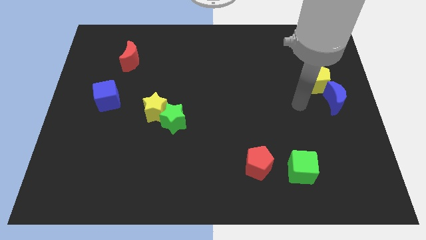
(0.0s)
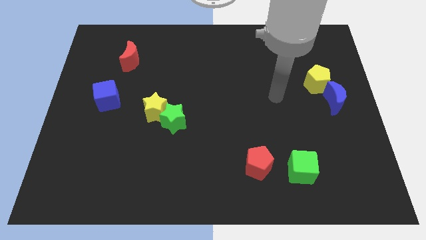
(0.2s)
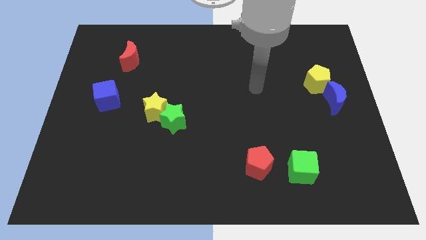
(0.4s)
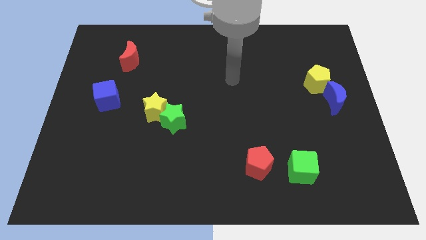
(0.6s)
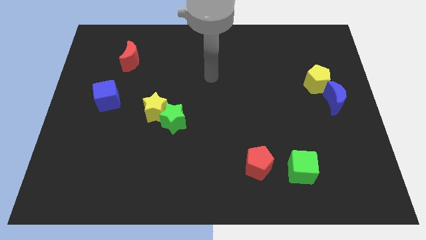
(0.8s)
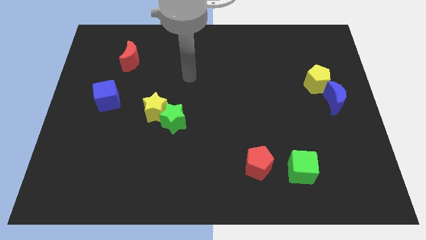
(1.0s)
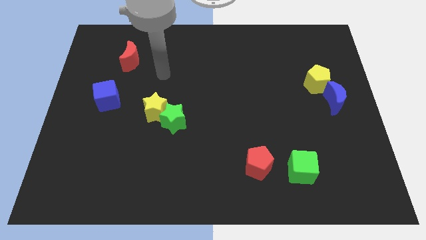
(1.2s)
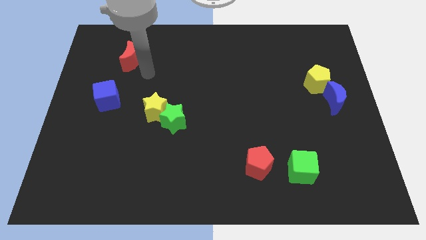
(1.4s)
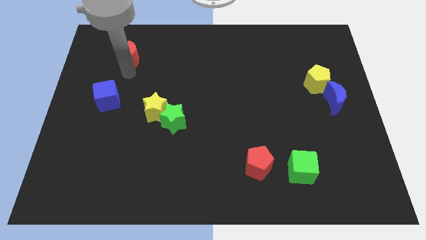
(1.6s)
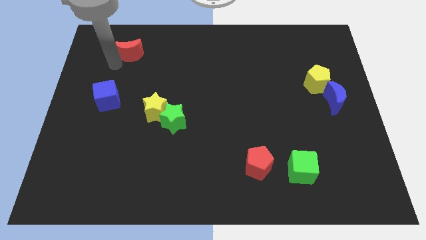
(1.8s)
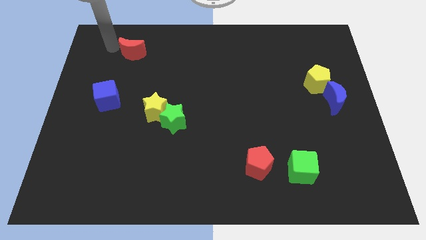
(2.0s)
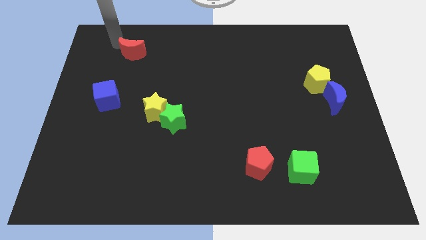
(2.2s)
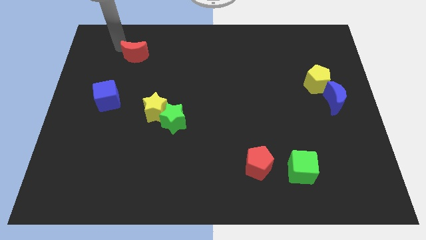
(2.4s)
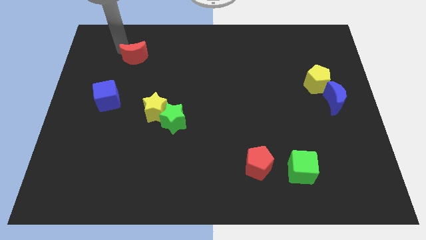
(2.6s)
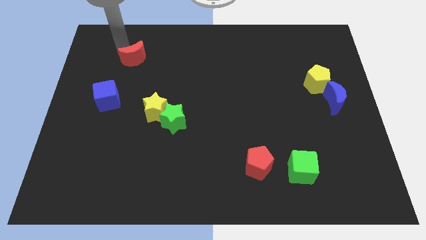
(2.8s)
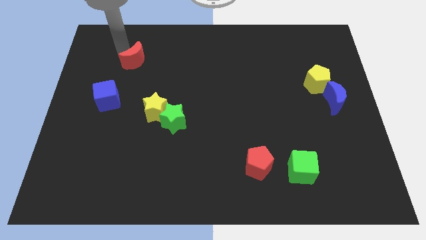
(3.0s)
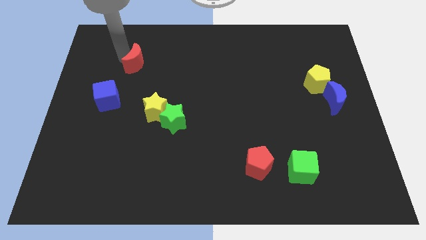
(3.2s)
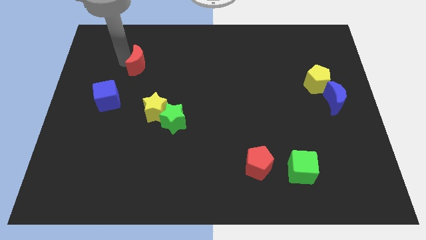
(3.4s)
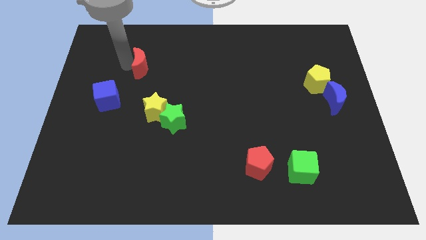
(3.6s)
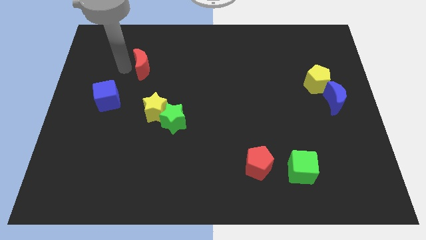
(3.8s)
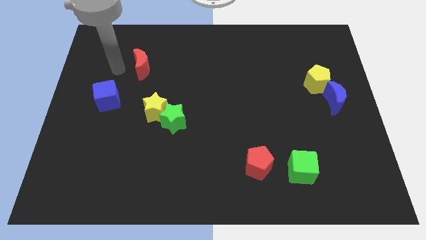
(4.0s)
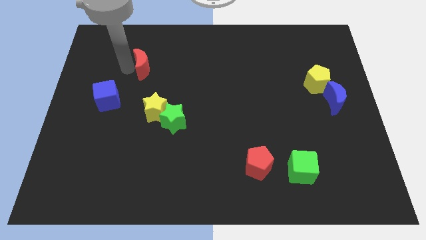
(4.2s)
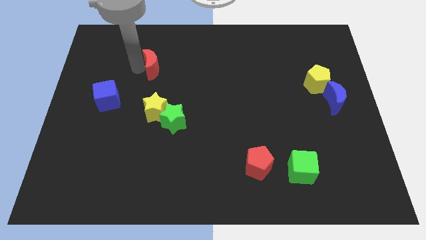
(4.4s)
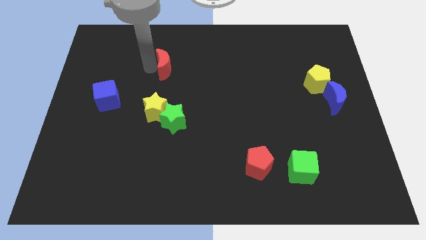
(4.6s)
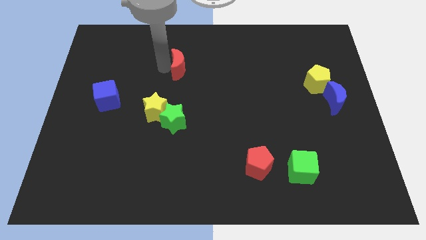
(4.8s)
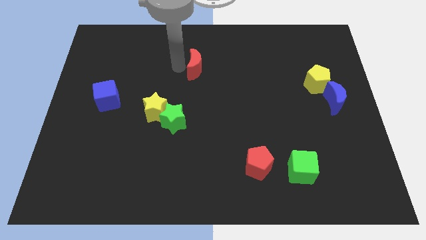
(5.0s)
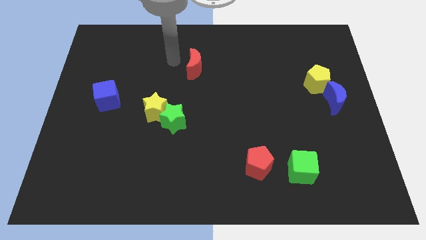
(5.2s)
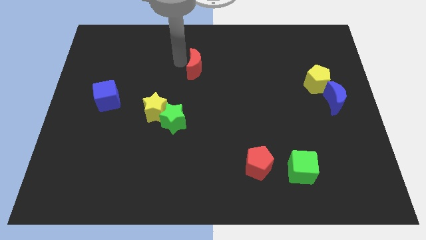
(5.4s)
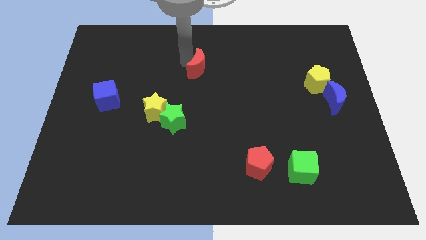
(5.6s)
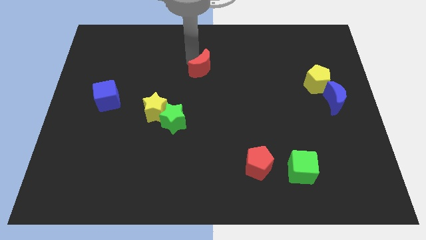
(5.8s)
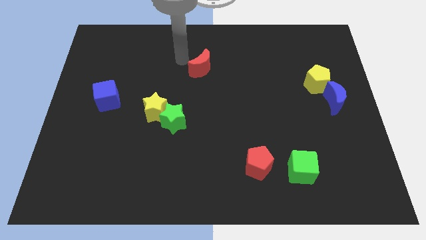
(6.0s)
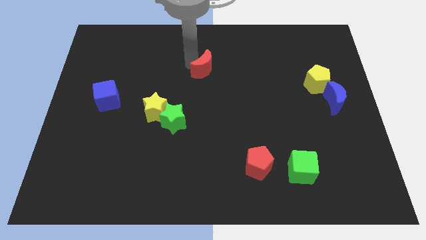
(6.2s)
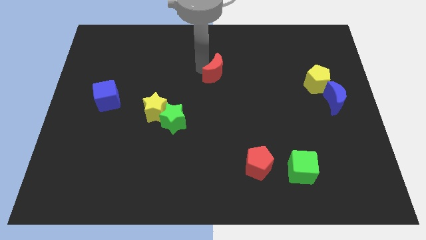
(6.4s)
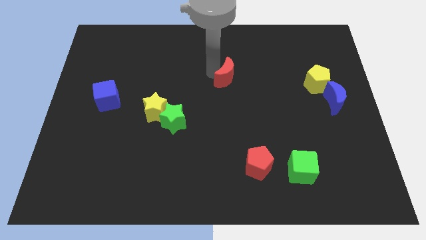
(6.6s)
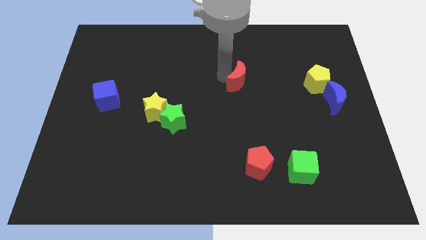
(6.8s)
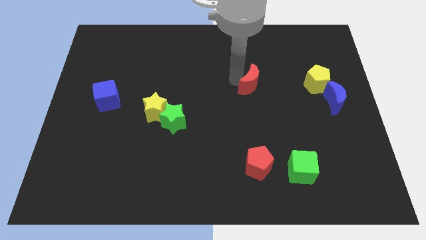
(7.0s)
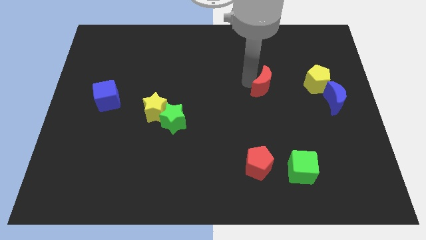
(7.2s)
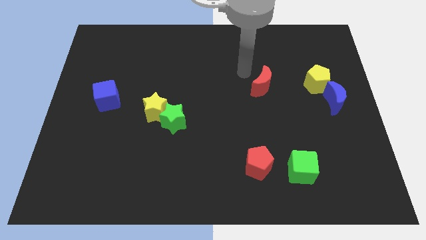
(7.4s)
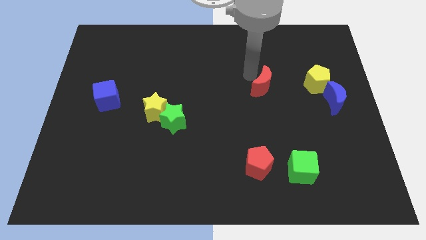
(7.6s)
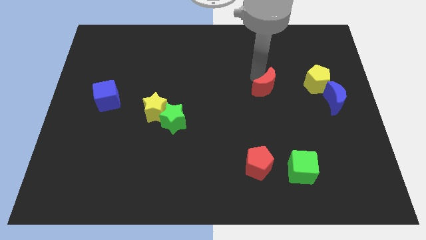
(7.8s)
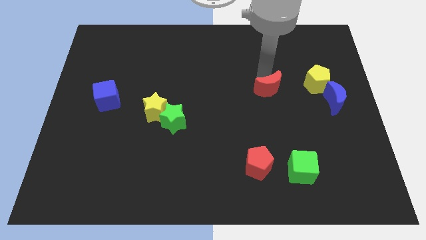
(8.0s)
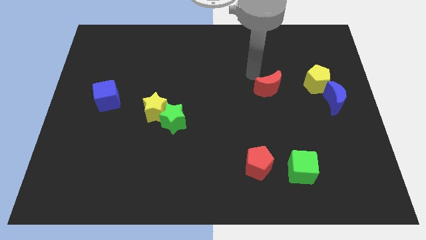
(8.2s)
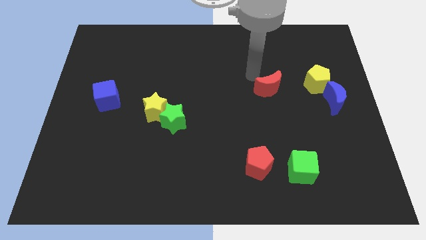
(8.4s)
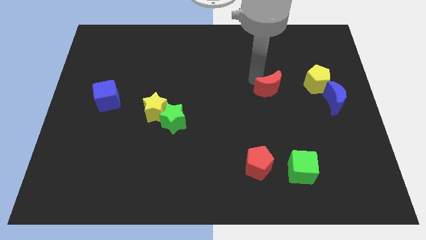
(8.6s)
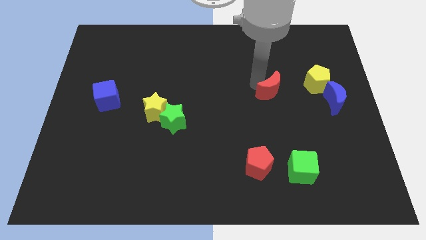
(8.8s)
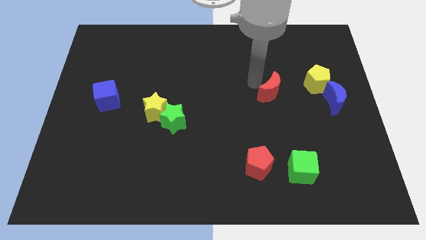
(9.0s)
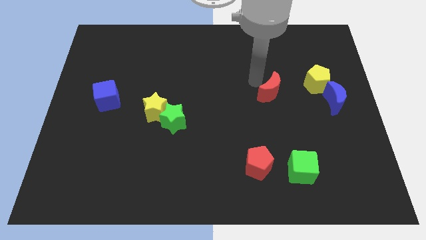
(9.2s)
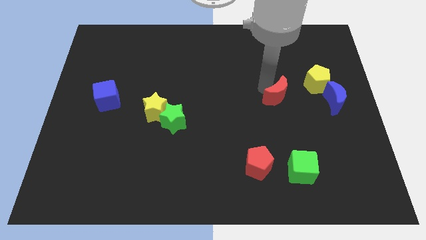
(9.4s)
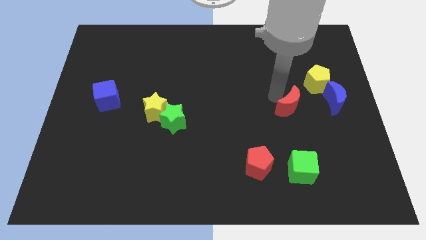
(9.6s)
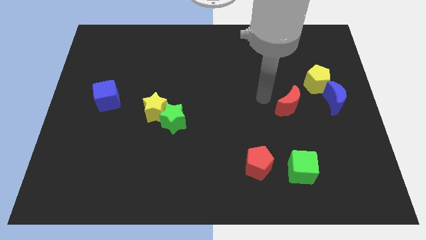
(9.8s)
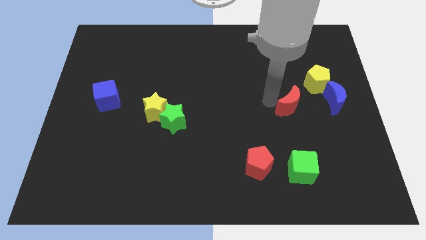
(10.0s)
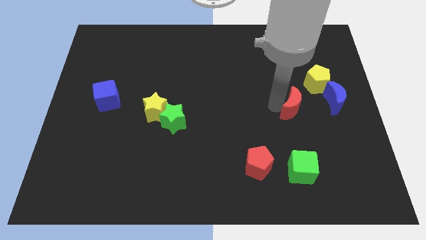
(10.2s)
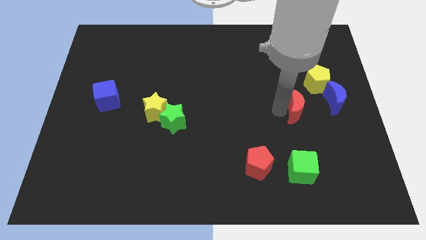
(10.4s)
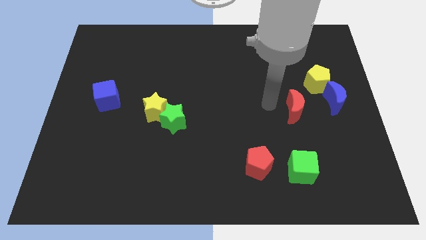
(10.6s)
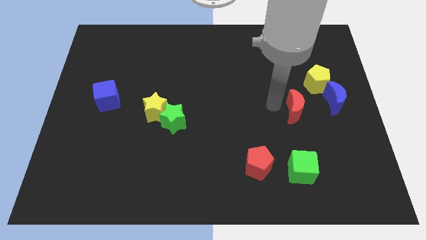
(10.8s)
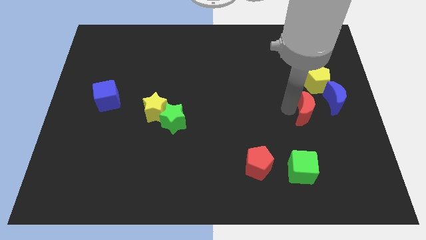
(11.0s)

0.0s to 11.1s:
move the red moon to the bottom side of the yellow pentagon

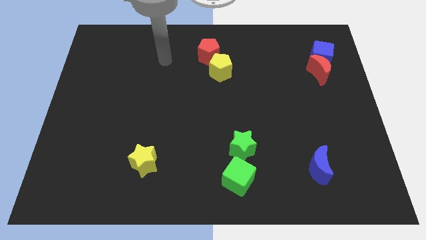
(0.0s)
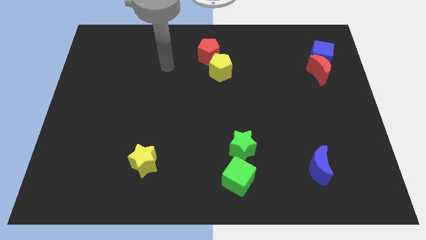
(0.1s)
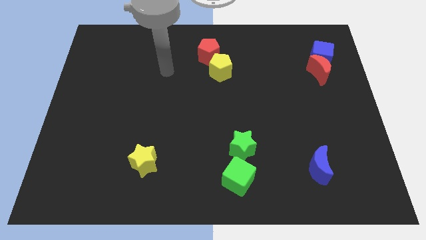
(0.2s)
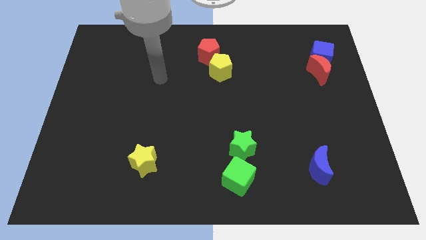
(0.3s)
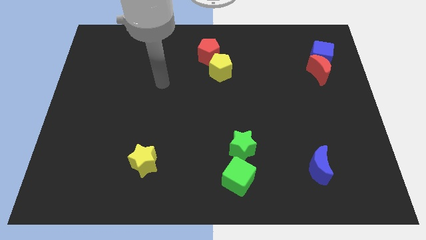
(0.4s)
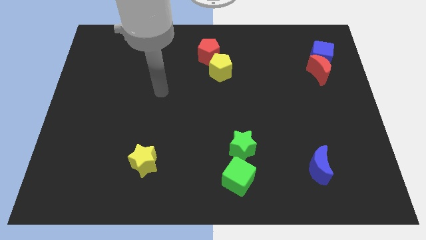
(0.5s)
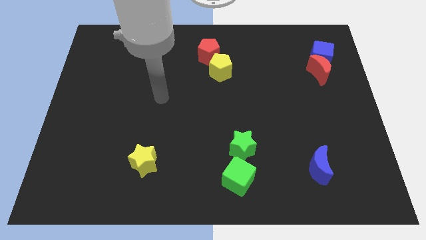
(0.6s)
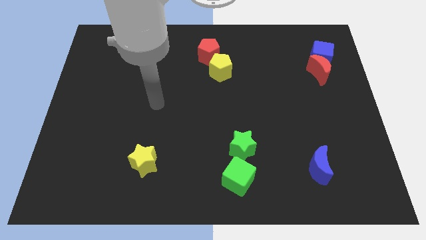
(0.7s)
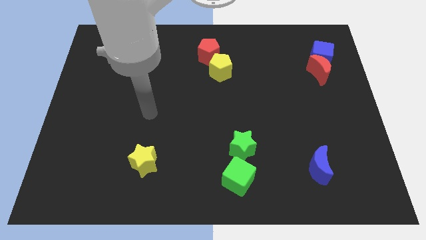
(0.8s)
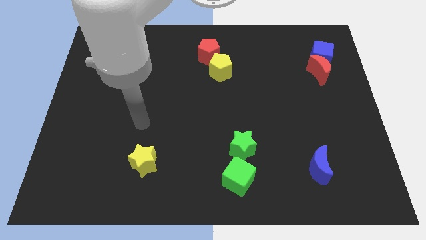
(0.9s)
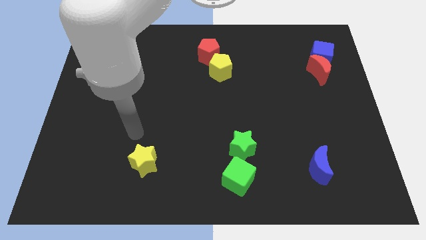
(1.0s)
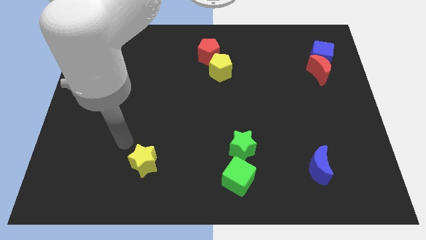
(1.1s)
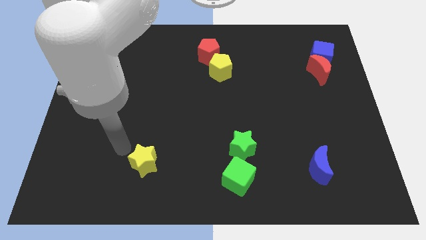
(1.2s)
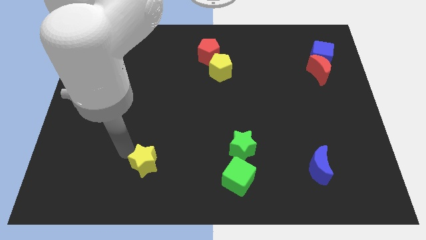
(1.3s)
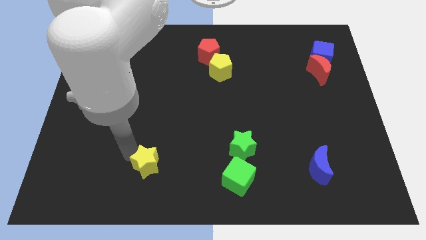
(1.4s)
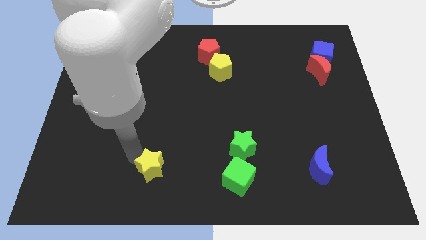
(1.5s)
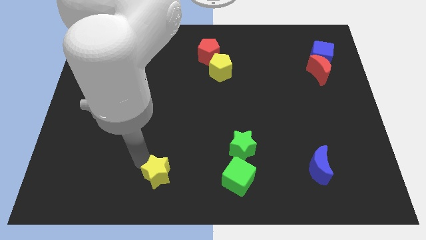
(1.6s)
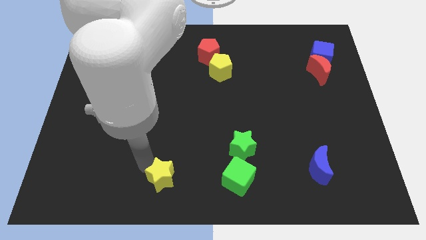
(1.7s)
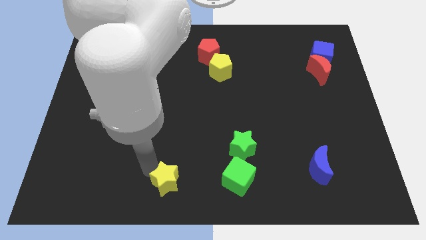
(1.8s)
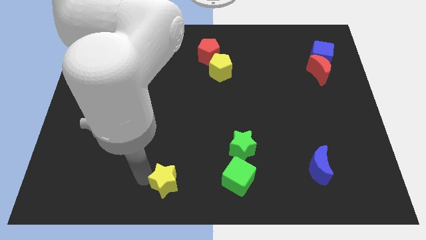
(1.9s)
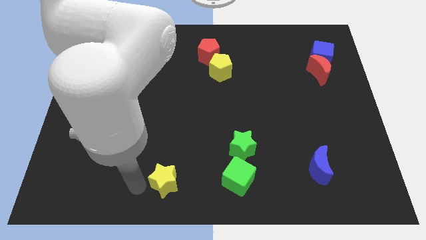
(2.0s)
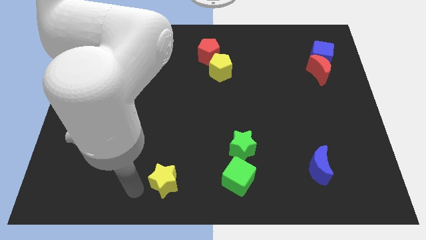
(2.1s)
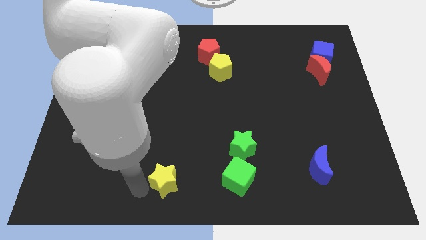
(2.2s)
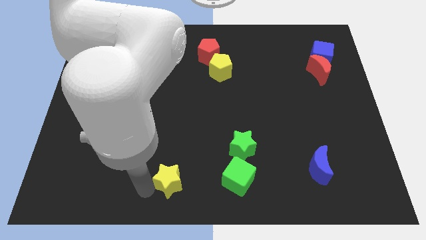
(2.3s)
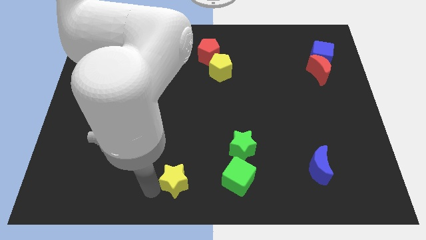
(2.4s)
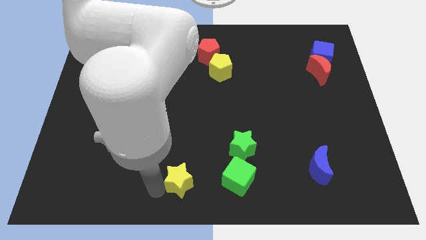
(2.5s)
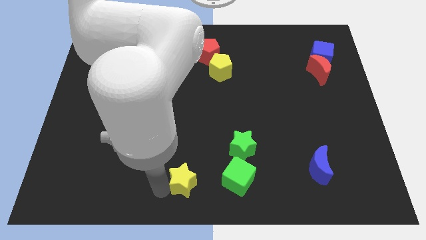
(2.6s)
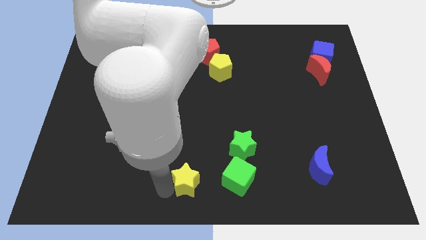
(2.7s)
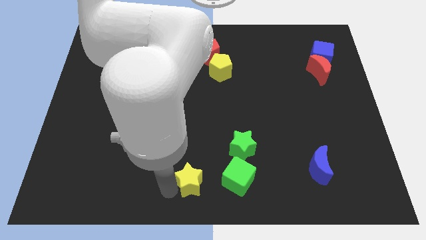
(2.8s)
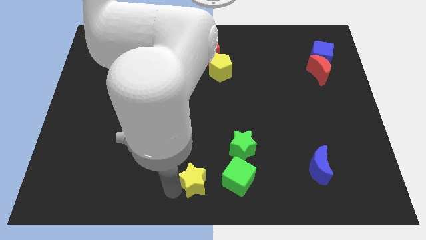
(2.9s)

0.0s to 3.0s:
move the yellow star to the bottom left side of the green star
